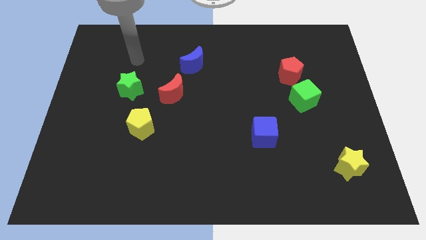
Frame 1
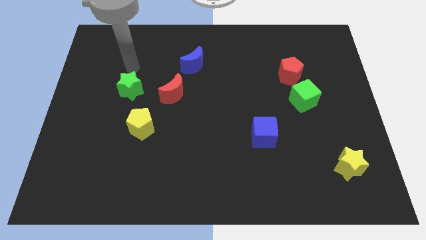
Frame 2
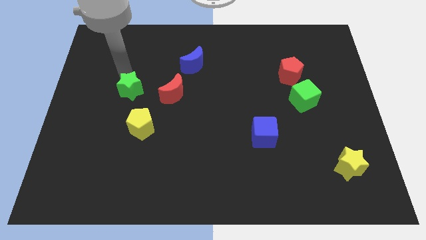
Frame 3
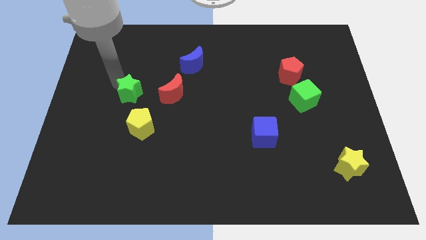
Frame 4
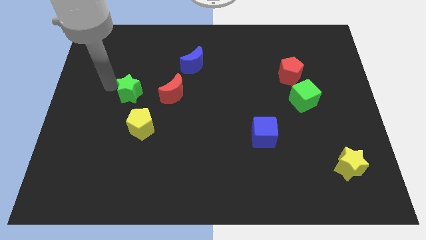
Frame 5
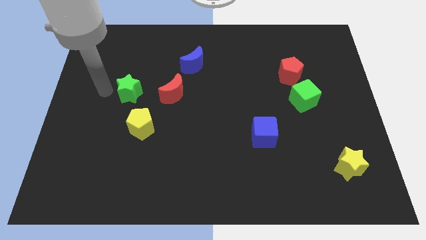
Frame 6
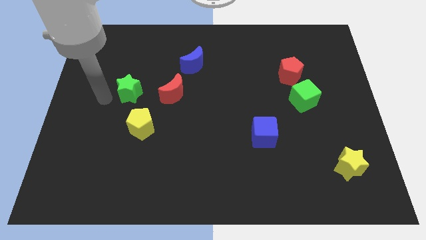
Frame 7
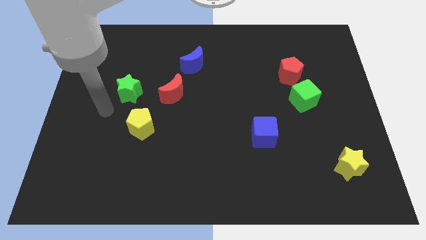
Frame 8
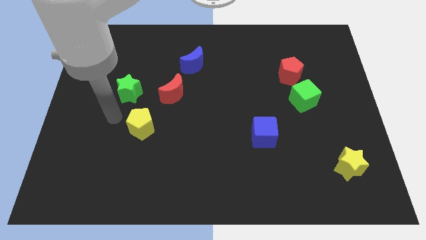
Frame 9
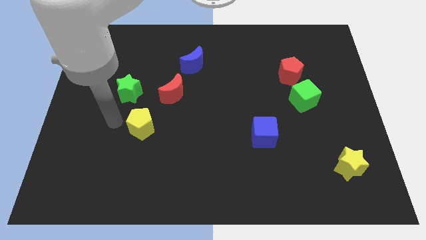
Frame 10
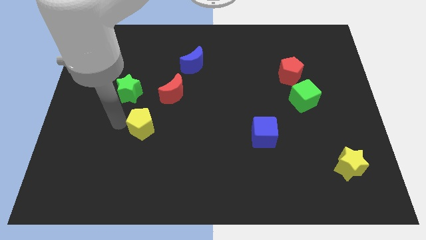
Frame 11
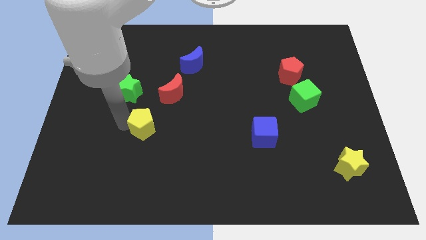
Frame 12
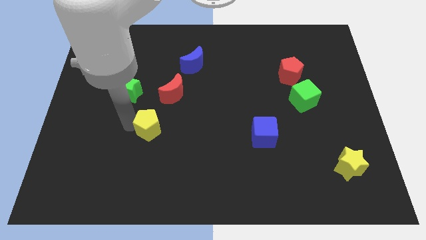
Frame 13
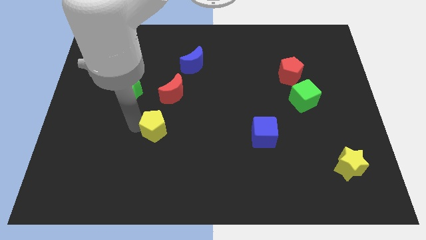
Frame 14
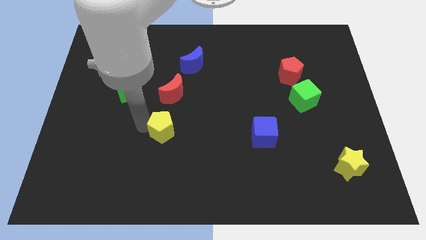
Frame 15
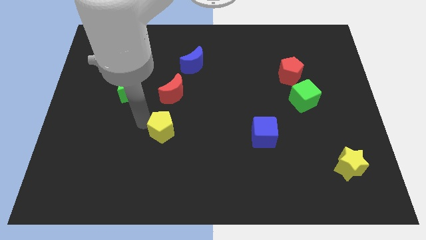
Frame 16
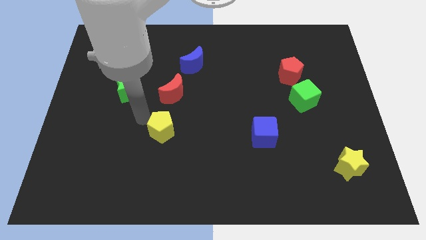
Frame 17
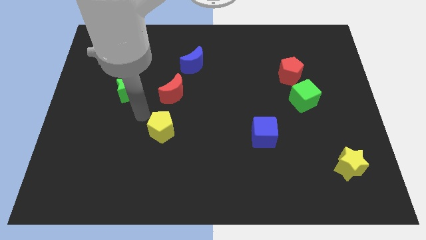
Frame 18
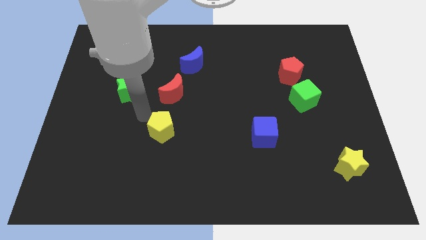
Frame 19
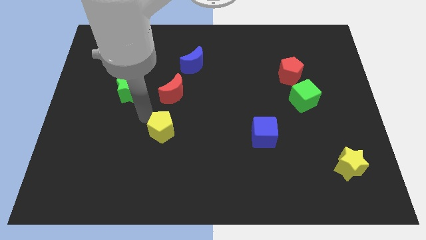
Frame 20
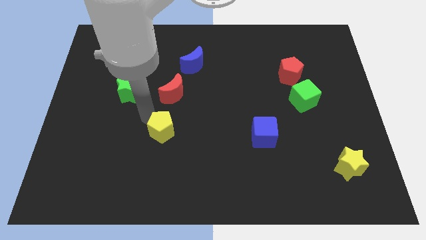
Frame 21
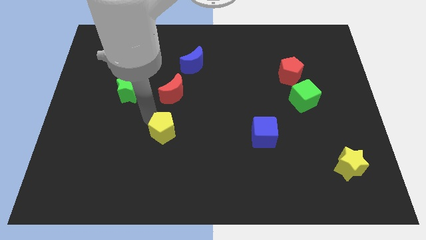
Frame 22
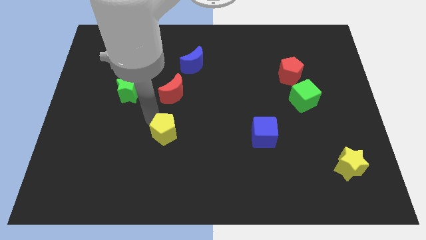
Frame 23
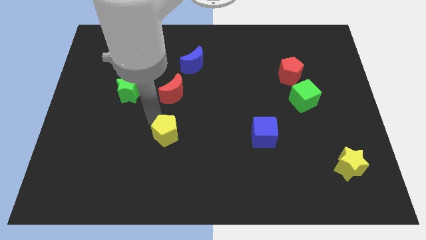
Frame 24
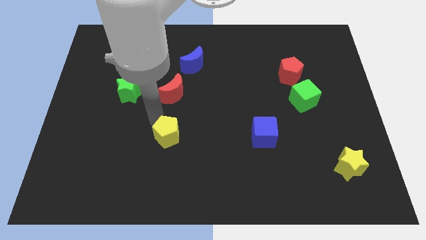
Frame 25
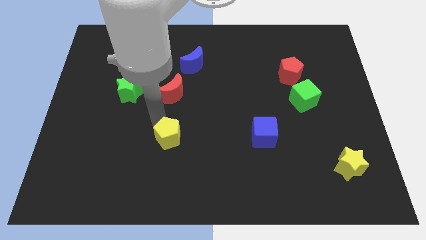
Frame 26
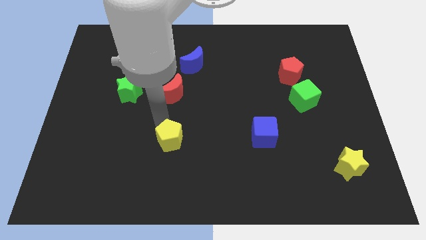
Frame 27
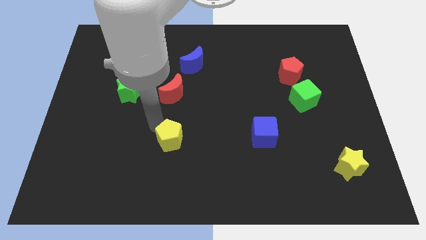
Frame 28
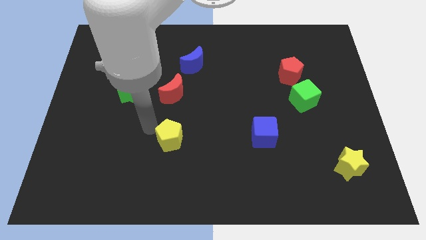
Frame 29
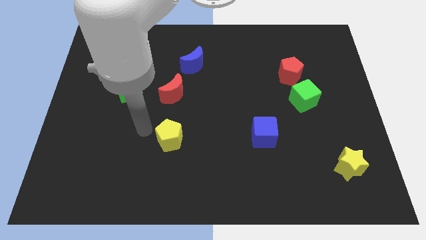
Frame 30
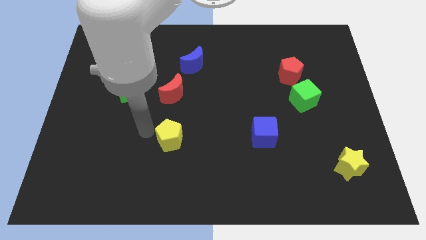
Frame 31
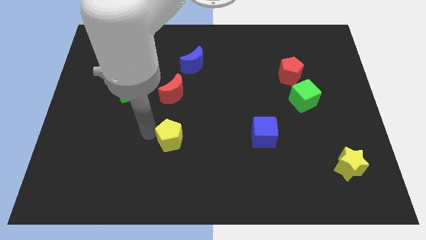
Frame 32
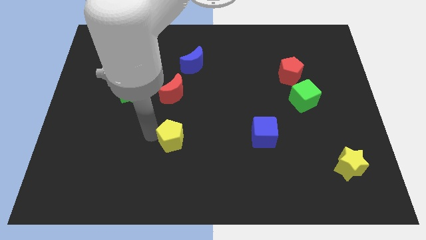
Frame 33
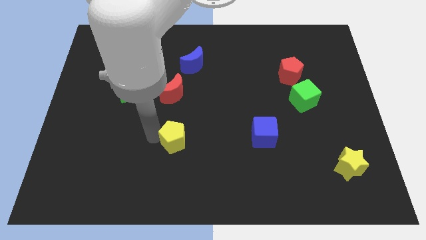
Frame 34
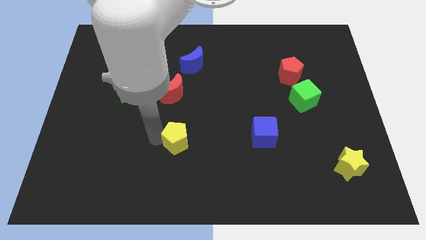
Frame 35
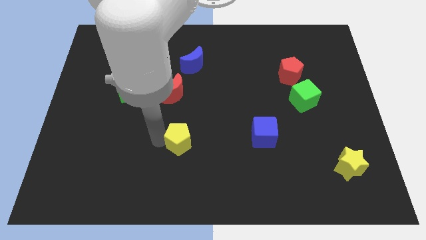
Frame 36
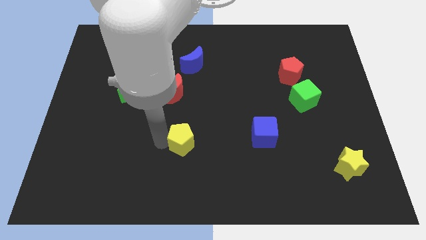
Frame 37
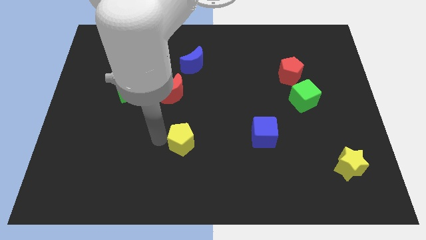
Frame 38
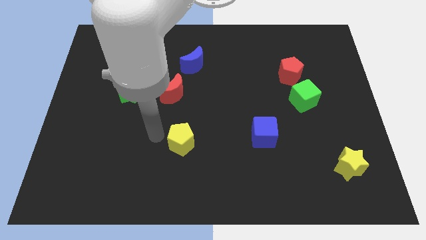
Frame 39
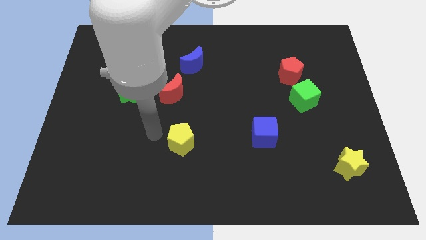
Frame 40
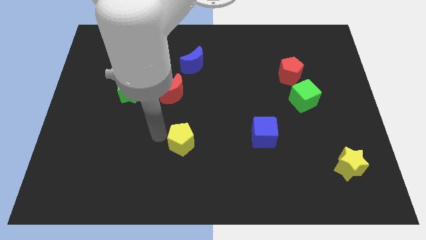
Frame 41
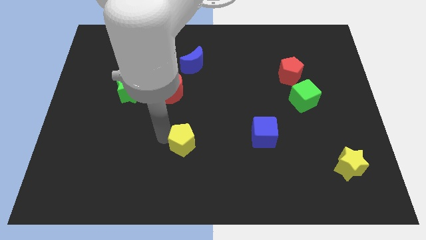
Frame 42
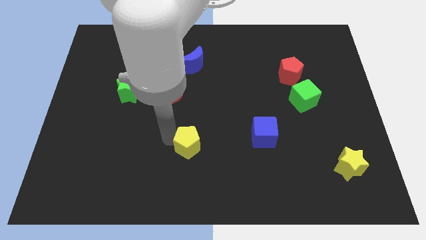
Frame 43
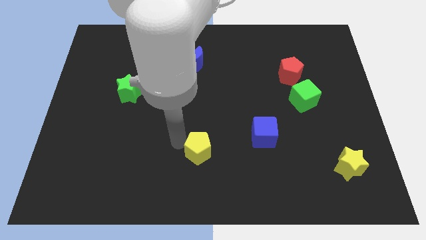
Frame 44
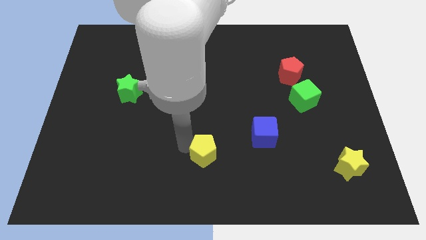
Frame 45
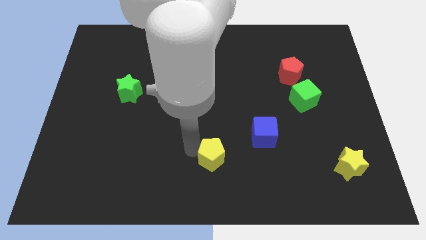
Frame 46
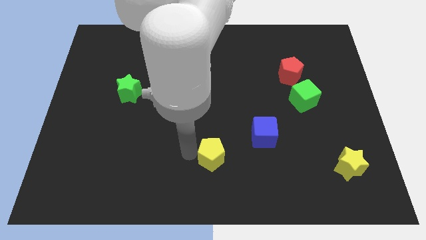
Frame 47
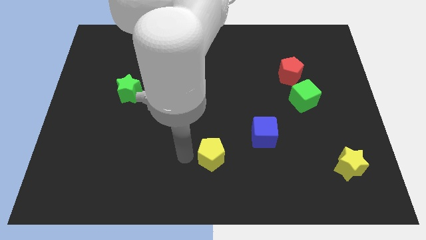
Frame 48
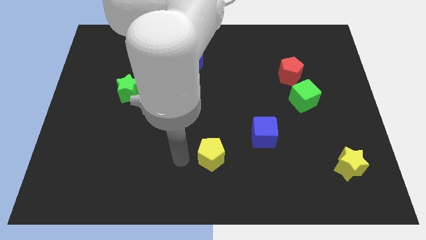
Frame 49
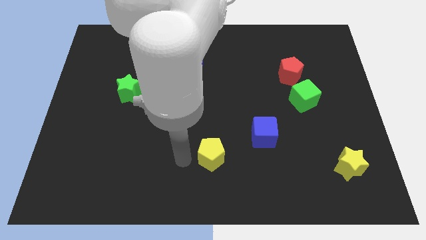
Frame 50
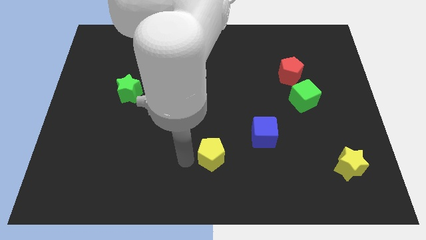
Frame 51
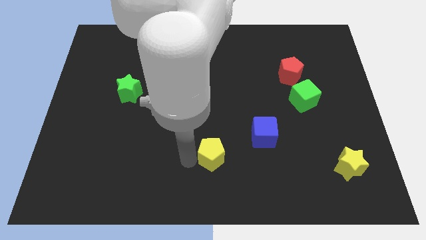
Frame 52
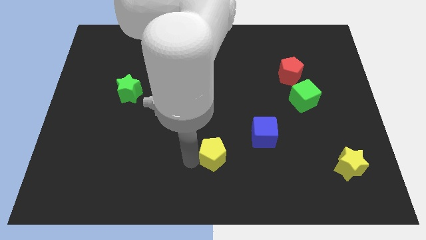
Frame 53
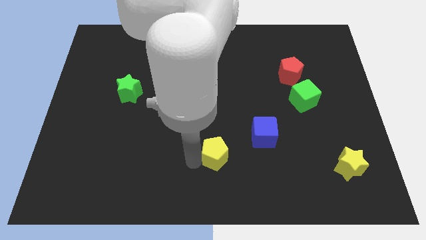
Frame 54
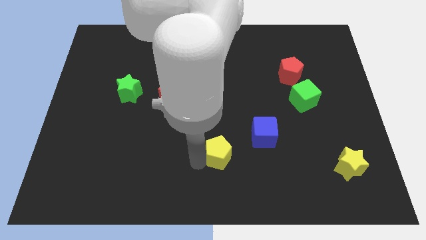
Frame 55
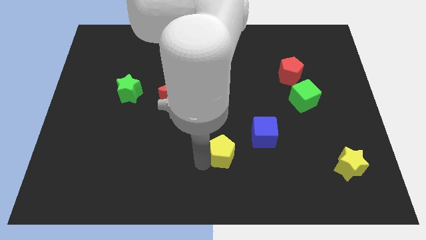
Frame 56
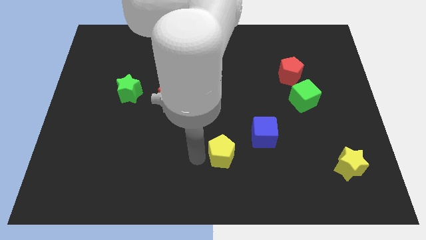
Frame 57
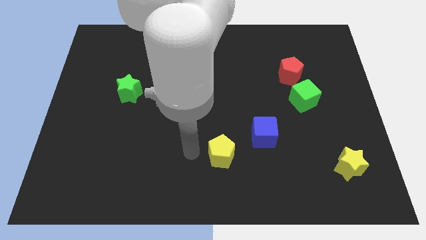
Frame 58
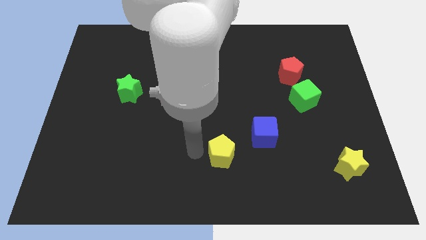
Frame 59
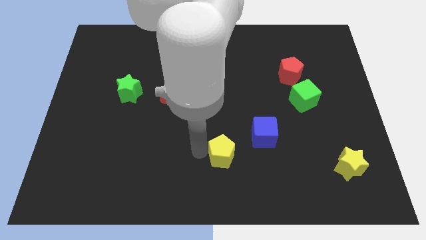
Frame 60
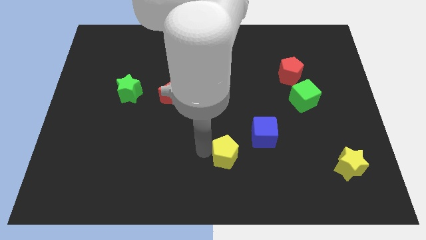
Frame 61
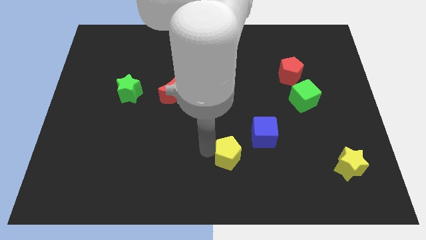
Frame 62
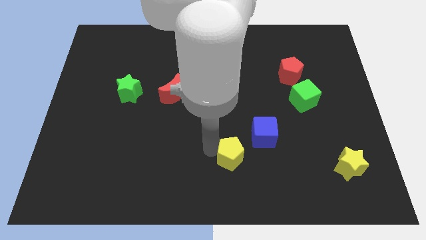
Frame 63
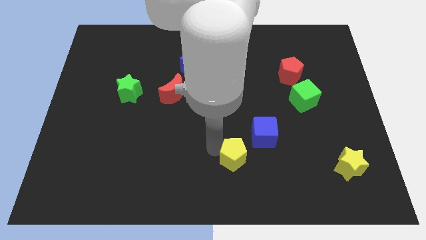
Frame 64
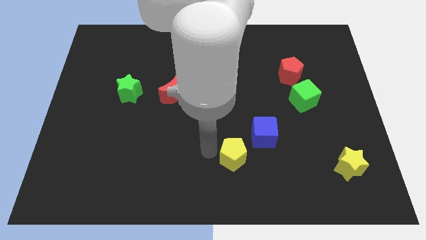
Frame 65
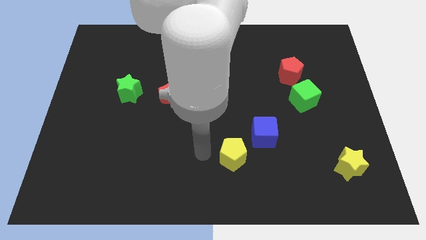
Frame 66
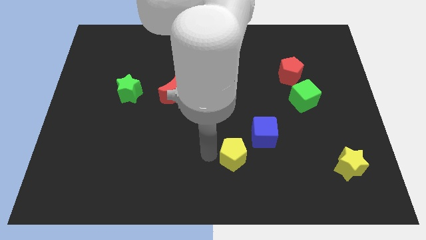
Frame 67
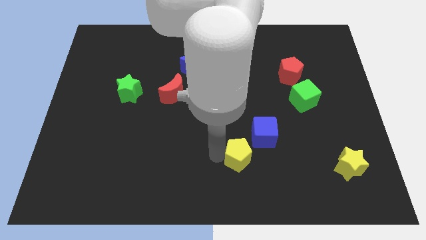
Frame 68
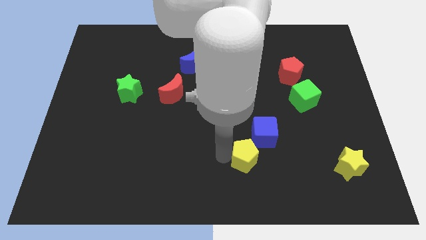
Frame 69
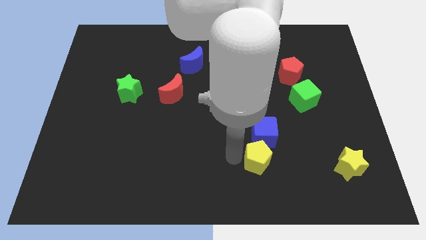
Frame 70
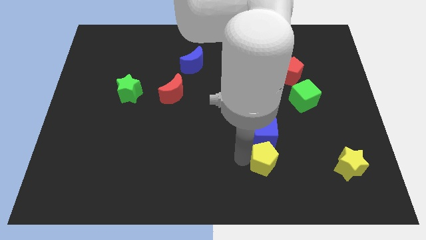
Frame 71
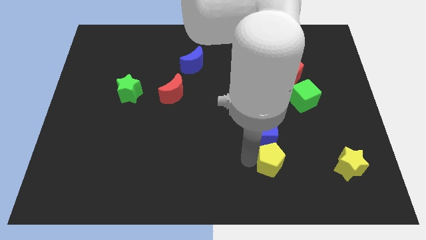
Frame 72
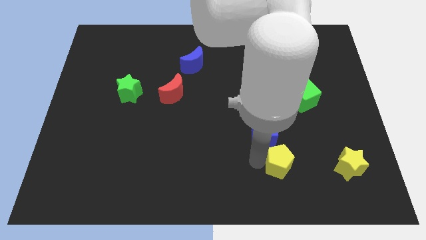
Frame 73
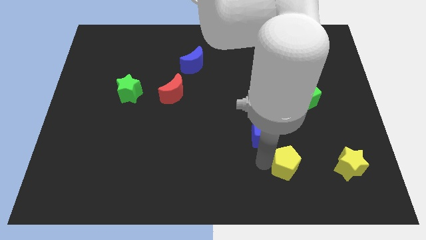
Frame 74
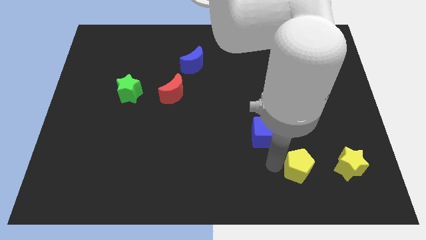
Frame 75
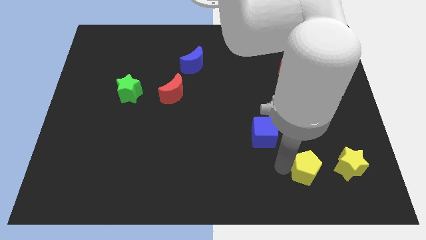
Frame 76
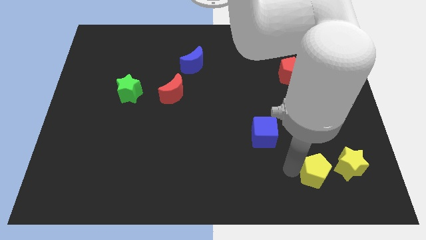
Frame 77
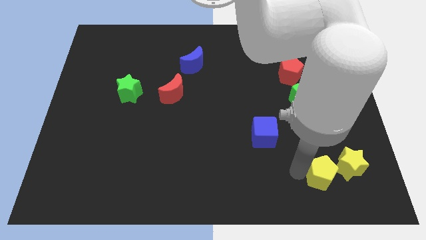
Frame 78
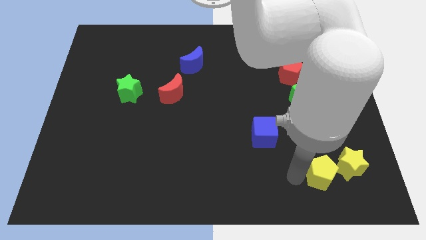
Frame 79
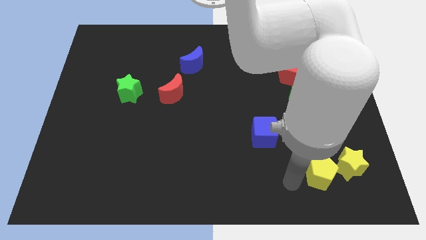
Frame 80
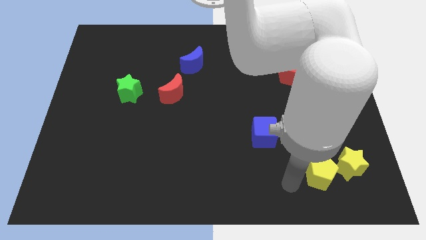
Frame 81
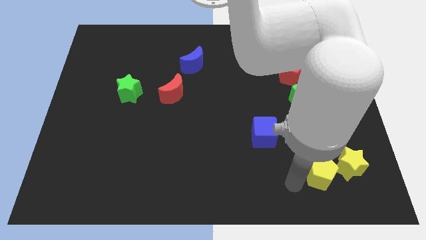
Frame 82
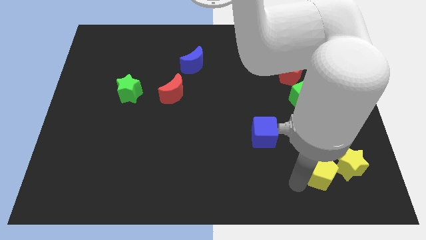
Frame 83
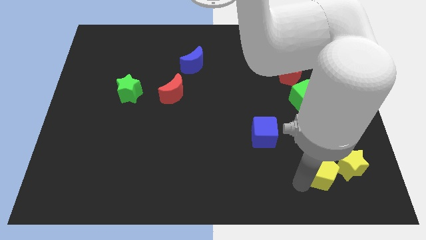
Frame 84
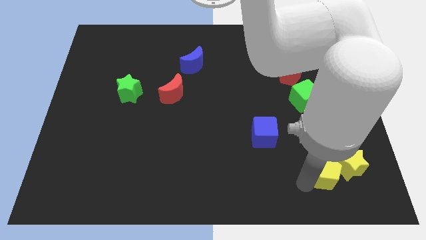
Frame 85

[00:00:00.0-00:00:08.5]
put the yellow pentagon towards the yellow star
